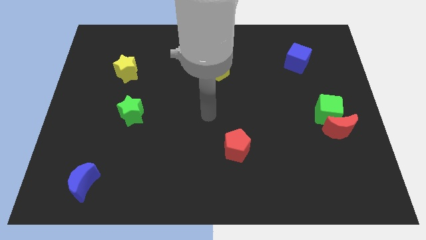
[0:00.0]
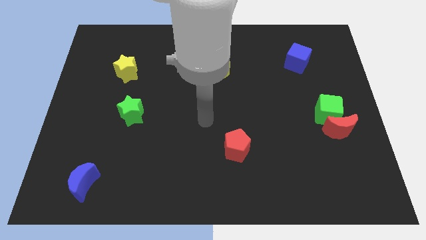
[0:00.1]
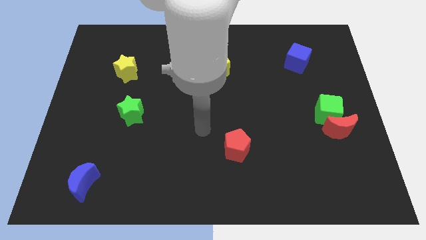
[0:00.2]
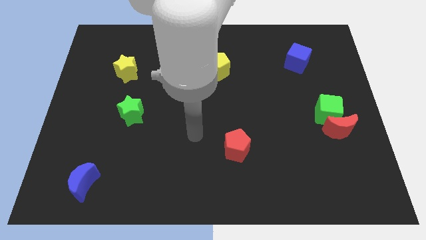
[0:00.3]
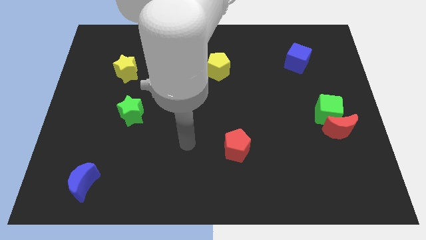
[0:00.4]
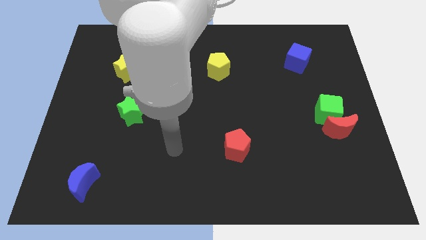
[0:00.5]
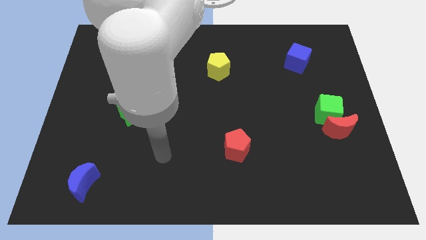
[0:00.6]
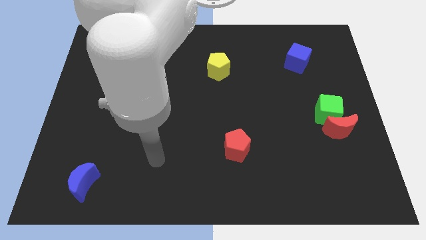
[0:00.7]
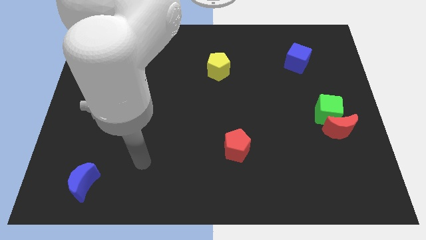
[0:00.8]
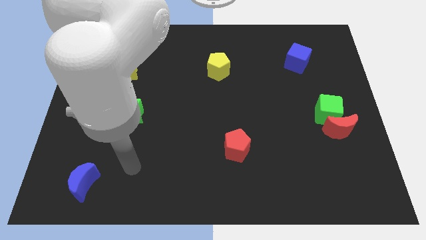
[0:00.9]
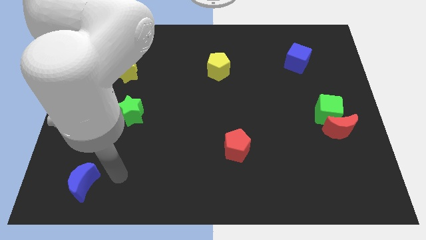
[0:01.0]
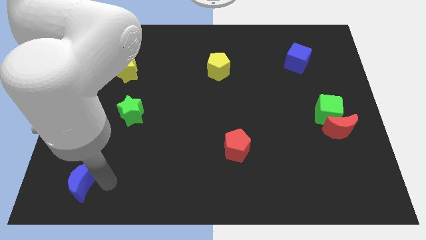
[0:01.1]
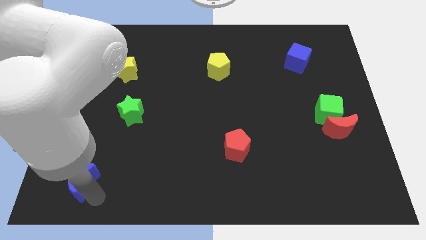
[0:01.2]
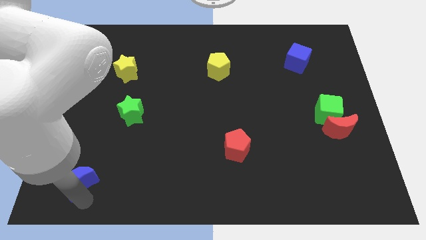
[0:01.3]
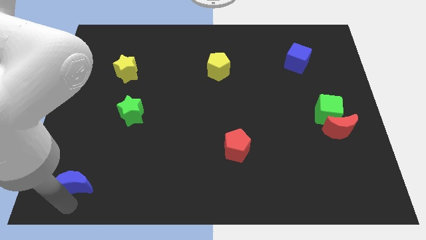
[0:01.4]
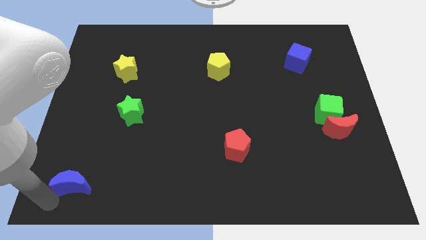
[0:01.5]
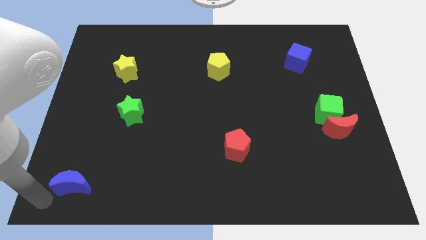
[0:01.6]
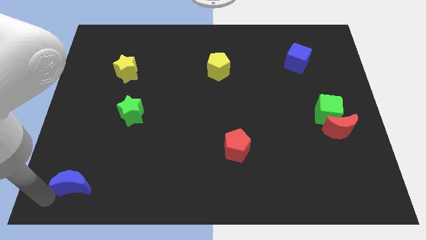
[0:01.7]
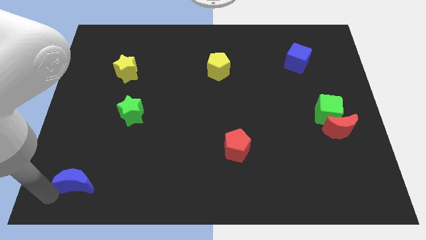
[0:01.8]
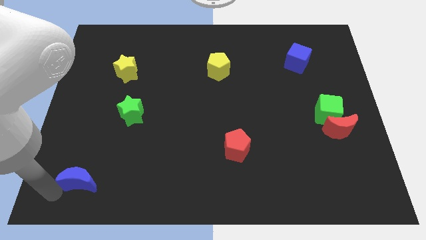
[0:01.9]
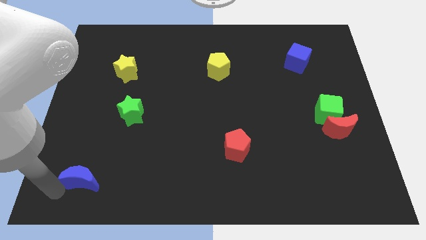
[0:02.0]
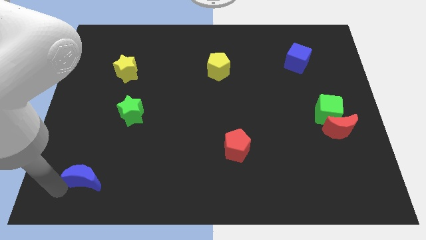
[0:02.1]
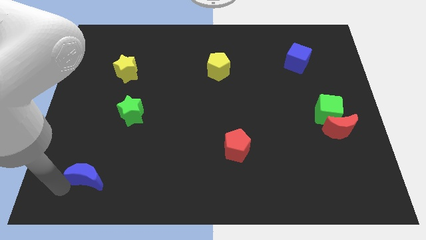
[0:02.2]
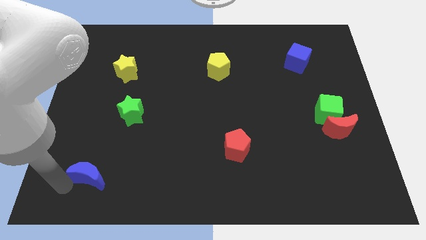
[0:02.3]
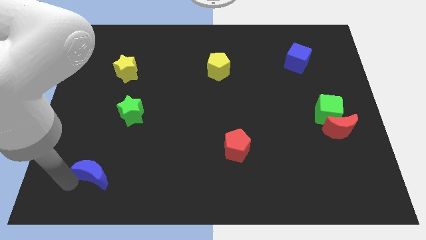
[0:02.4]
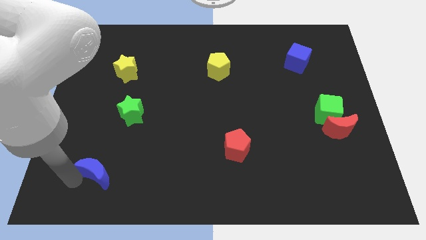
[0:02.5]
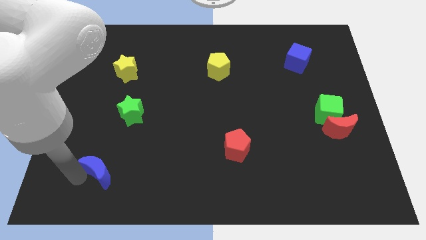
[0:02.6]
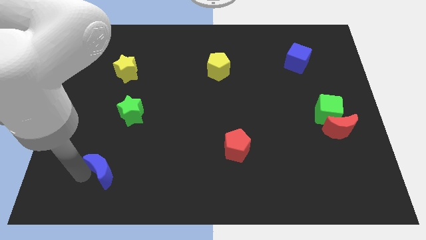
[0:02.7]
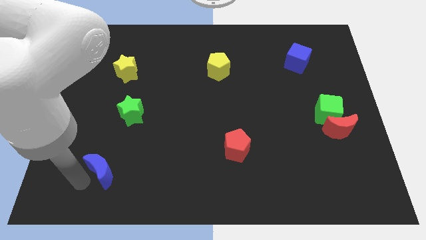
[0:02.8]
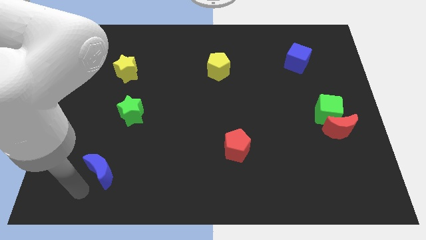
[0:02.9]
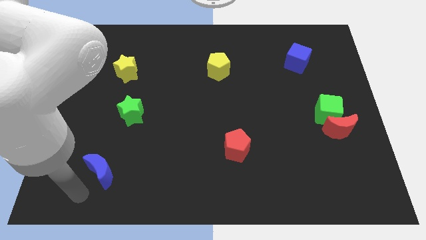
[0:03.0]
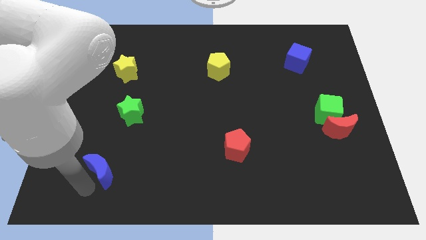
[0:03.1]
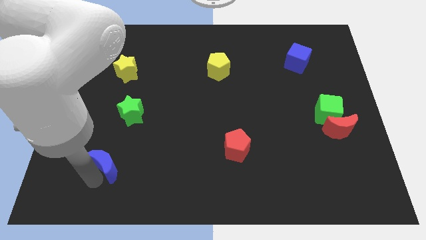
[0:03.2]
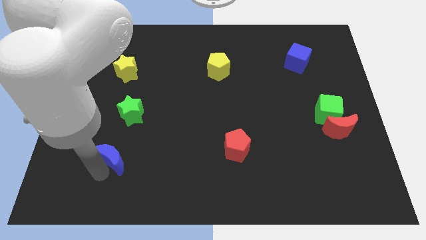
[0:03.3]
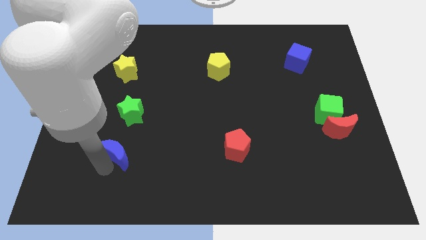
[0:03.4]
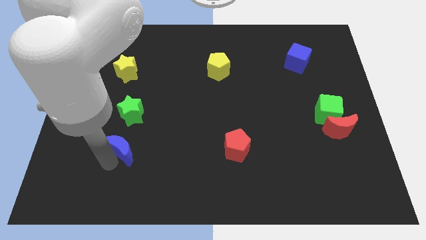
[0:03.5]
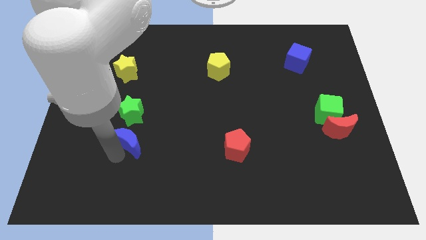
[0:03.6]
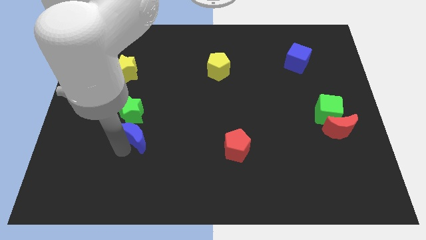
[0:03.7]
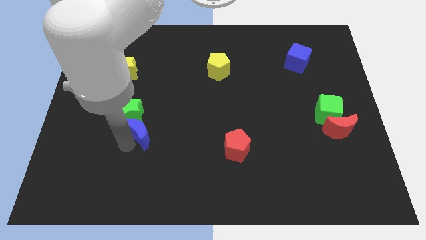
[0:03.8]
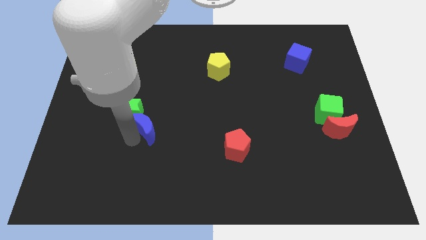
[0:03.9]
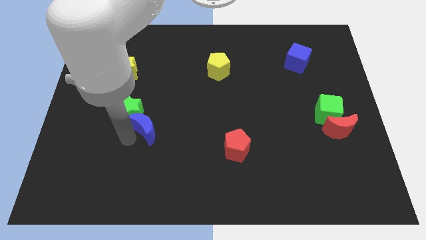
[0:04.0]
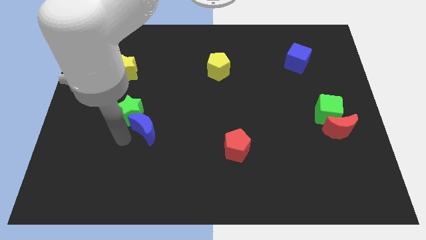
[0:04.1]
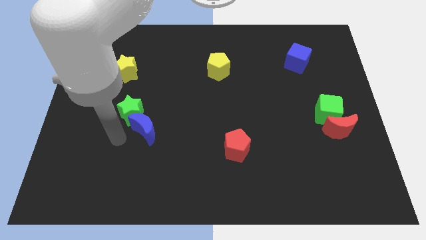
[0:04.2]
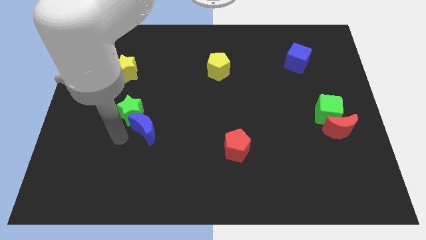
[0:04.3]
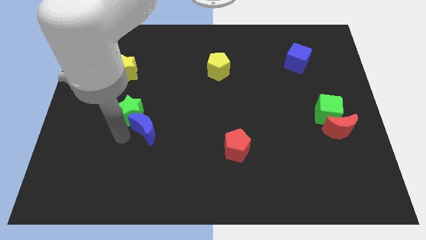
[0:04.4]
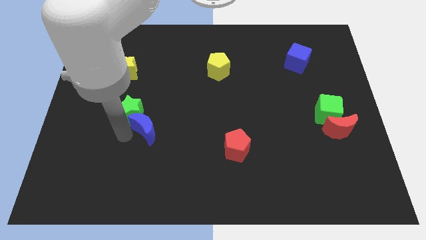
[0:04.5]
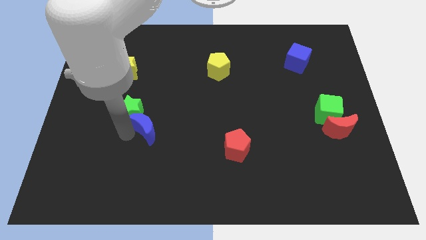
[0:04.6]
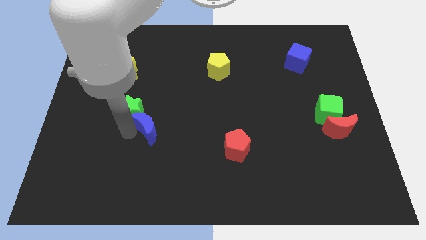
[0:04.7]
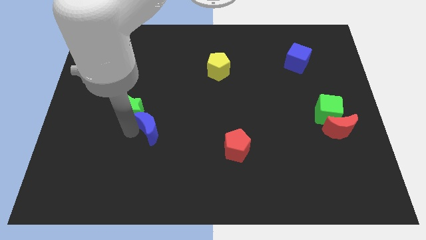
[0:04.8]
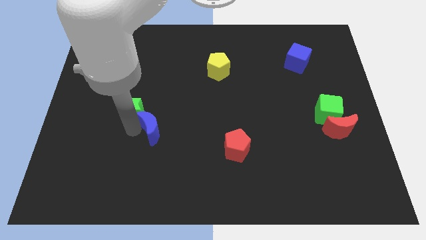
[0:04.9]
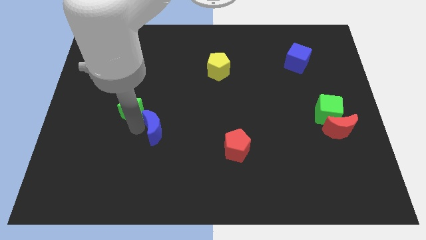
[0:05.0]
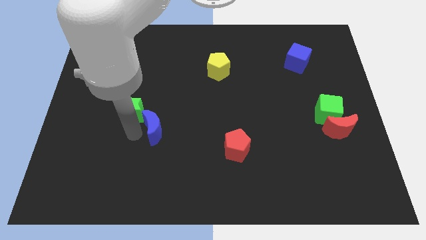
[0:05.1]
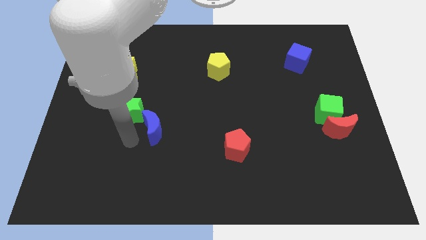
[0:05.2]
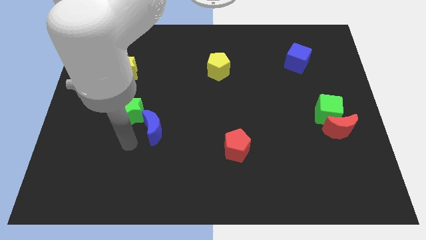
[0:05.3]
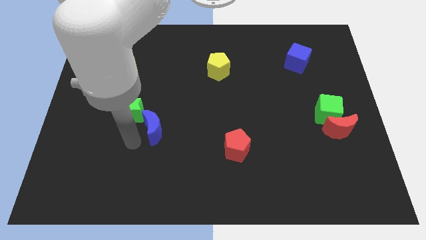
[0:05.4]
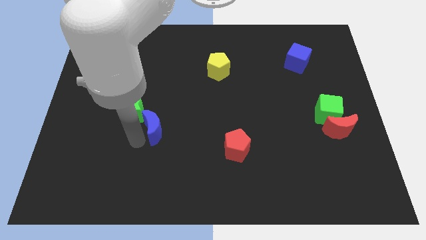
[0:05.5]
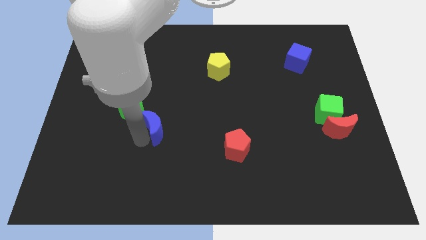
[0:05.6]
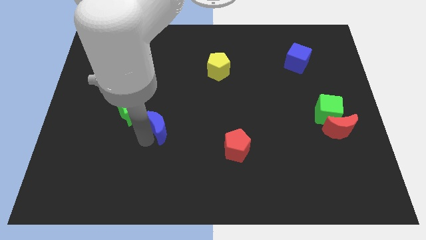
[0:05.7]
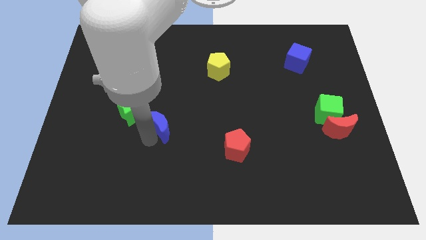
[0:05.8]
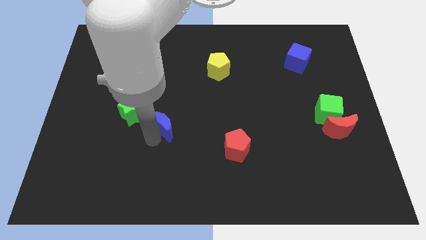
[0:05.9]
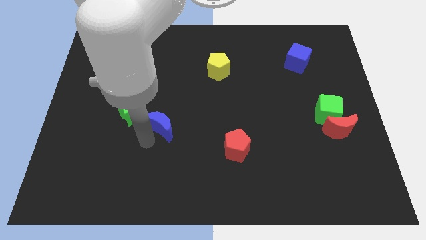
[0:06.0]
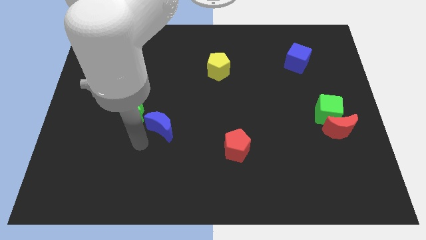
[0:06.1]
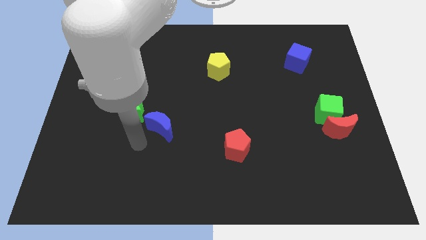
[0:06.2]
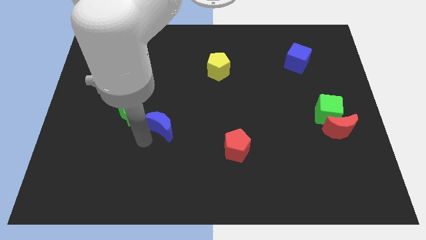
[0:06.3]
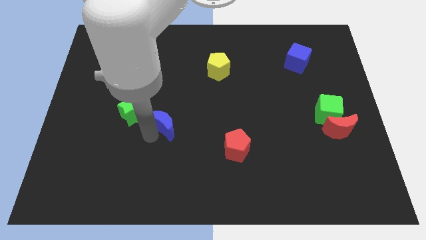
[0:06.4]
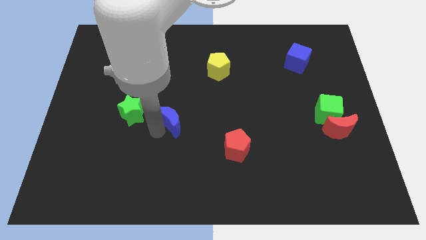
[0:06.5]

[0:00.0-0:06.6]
push the blue moon to the center
